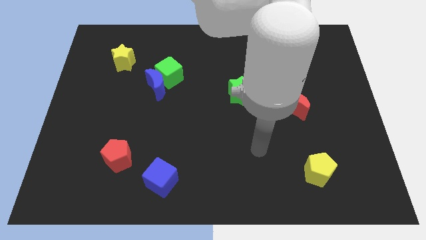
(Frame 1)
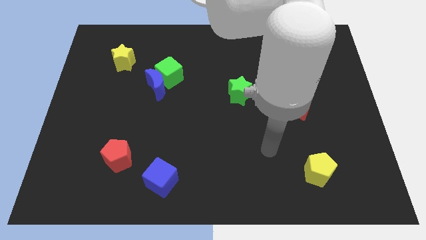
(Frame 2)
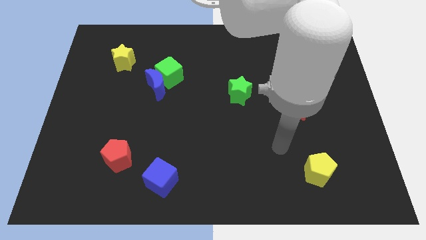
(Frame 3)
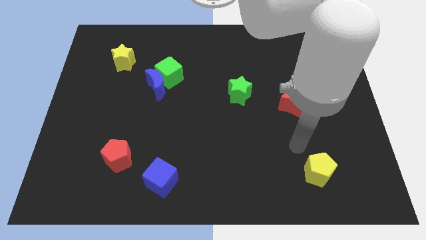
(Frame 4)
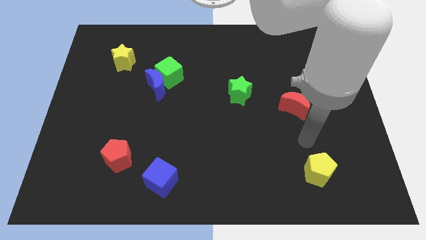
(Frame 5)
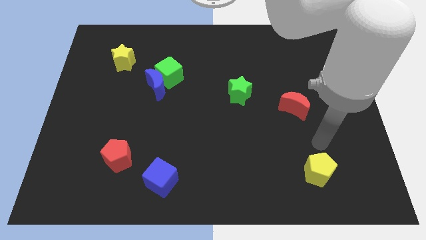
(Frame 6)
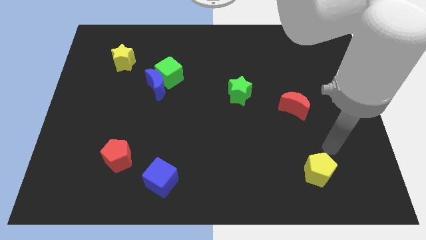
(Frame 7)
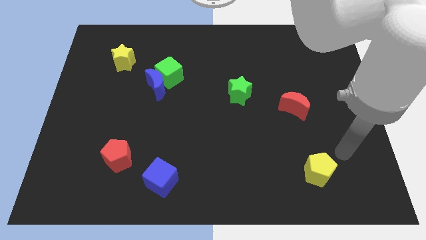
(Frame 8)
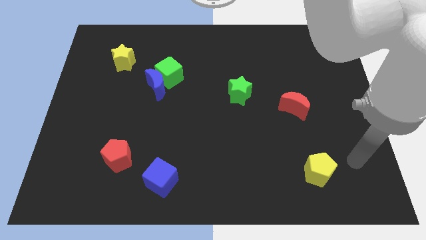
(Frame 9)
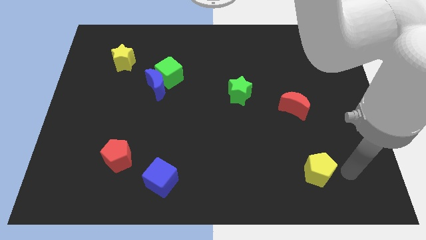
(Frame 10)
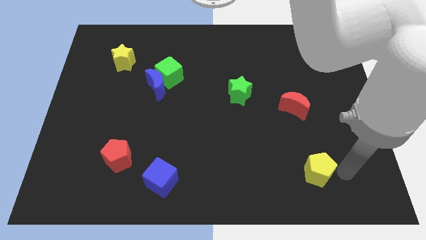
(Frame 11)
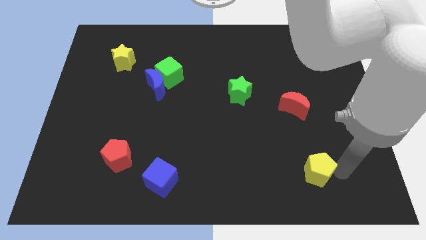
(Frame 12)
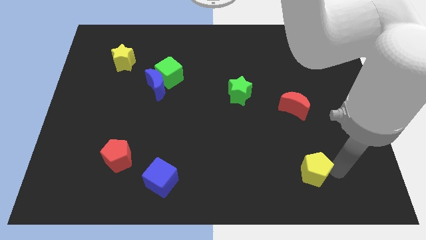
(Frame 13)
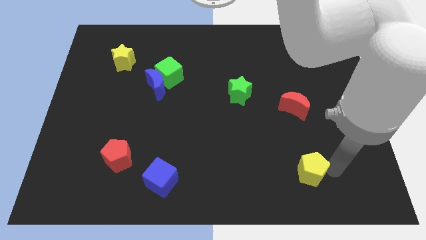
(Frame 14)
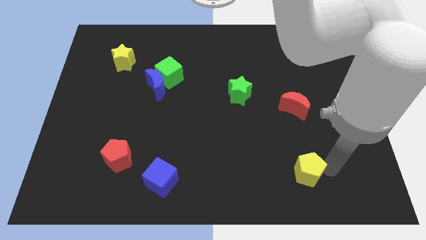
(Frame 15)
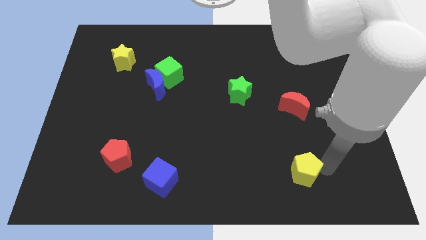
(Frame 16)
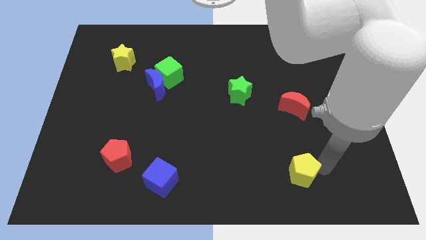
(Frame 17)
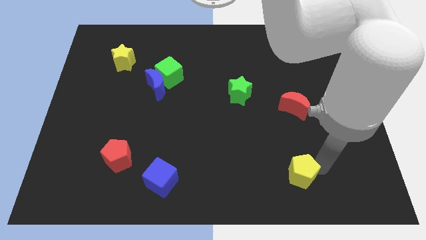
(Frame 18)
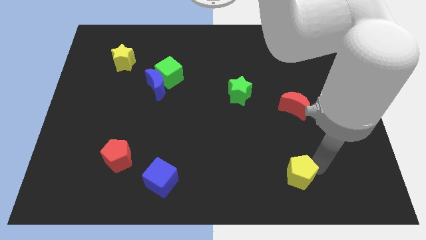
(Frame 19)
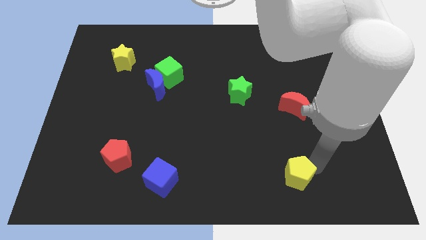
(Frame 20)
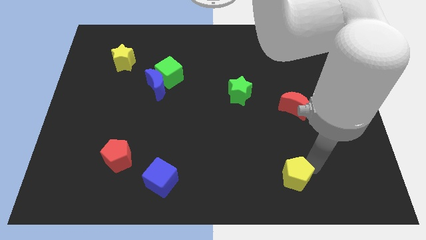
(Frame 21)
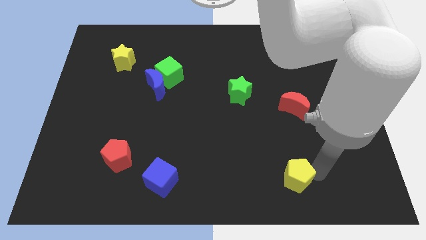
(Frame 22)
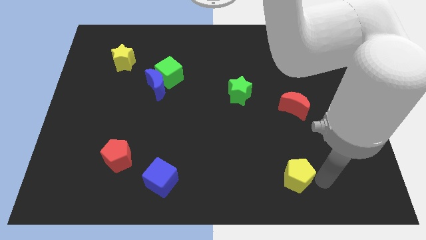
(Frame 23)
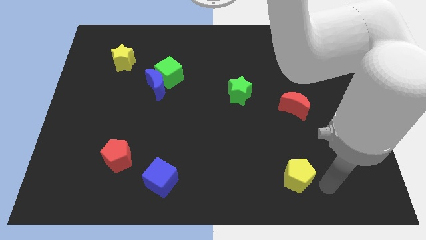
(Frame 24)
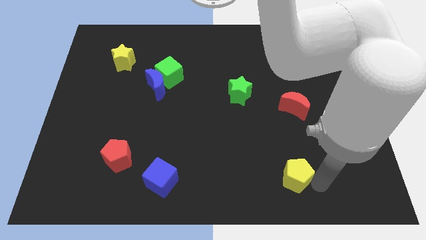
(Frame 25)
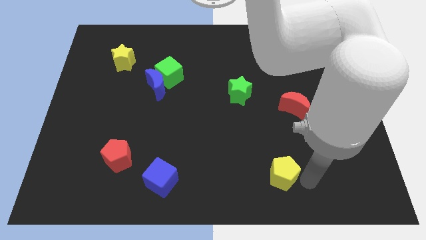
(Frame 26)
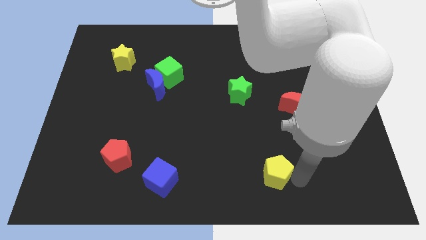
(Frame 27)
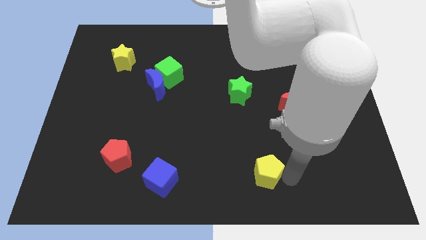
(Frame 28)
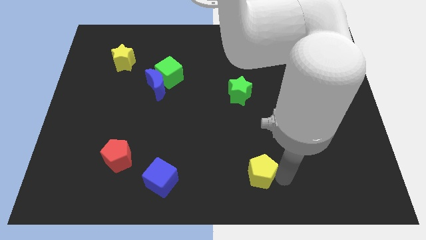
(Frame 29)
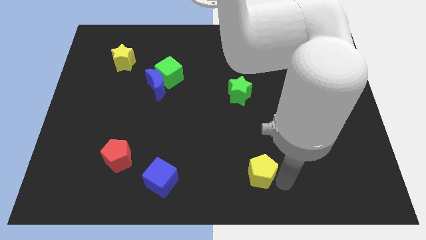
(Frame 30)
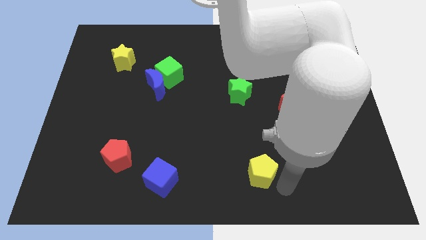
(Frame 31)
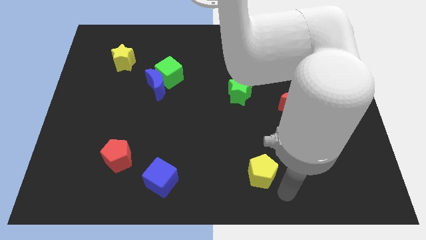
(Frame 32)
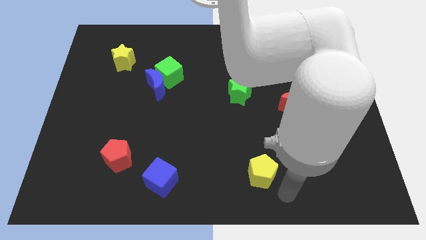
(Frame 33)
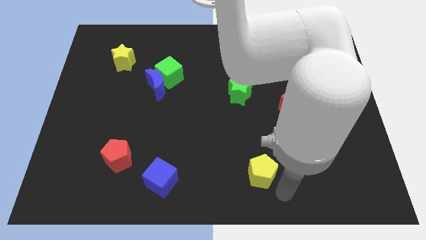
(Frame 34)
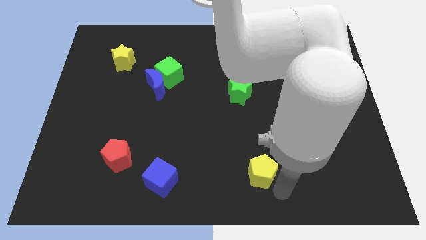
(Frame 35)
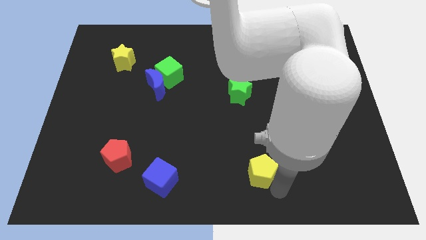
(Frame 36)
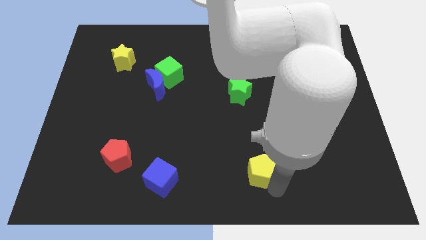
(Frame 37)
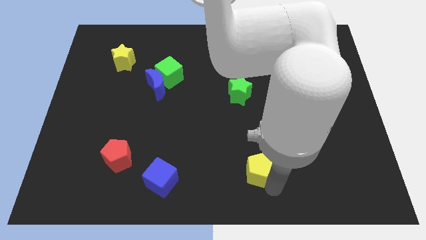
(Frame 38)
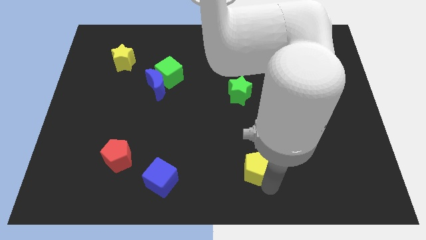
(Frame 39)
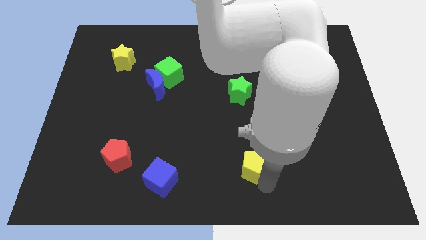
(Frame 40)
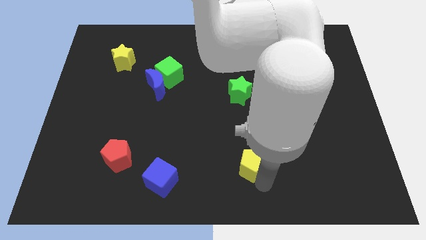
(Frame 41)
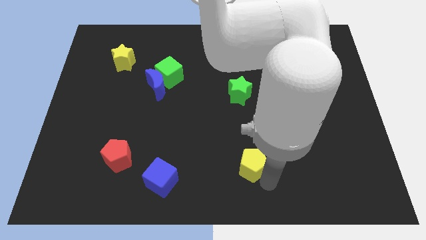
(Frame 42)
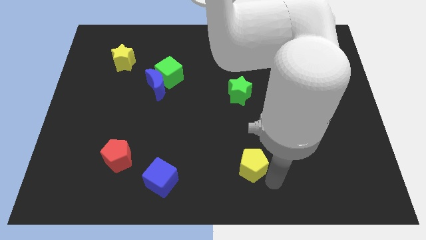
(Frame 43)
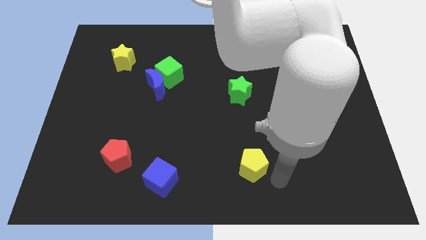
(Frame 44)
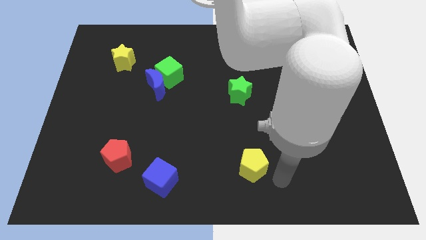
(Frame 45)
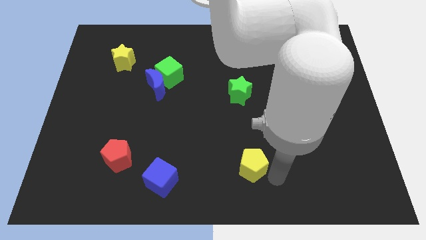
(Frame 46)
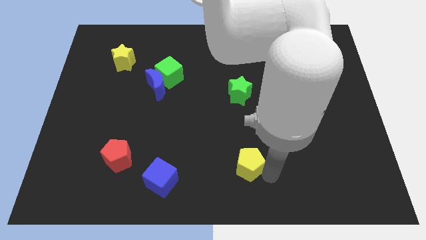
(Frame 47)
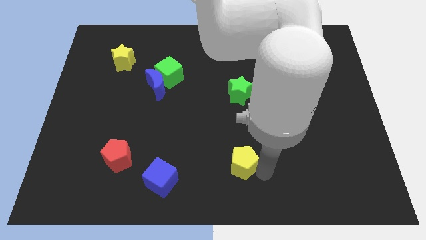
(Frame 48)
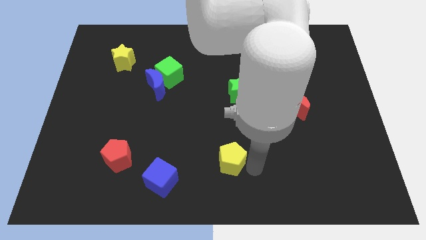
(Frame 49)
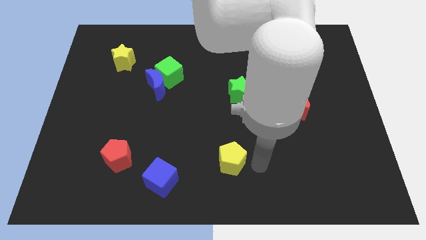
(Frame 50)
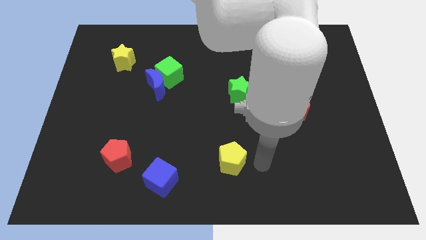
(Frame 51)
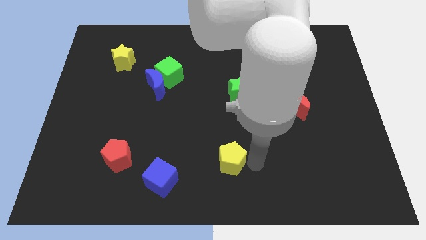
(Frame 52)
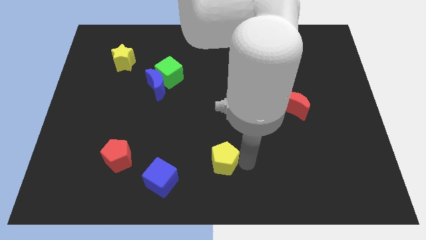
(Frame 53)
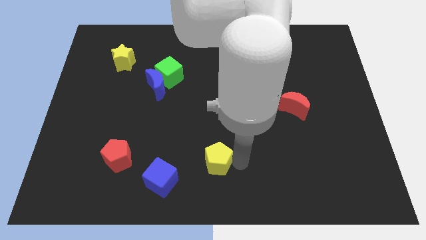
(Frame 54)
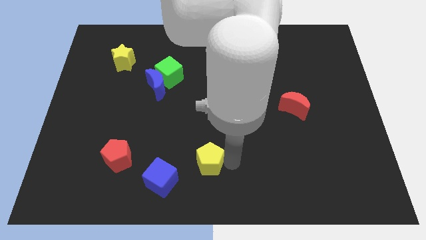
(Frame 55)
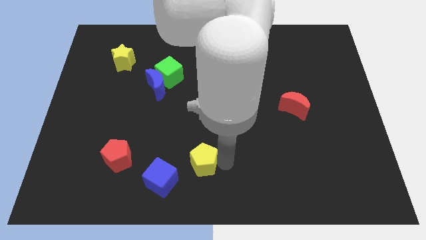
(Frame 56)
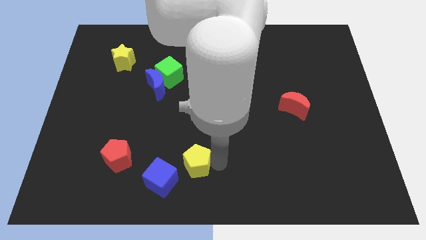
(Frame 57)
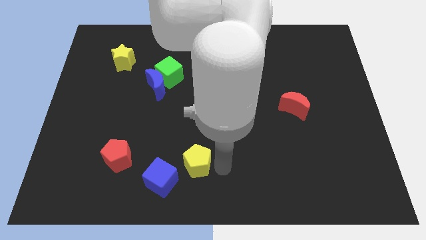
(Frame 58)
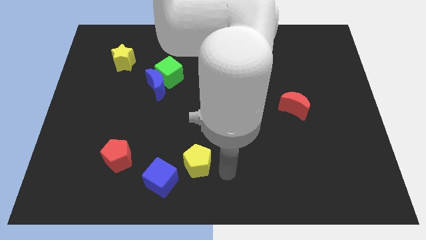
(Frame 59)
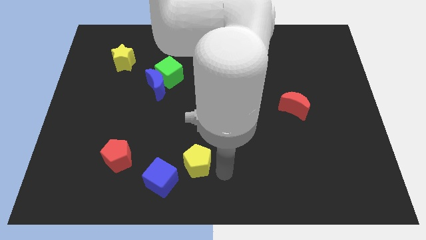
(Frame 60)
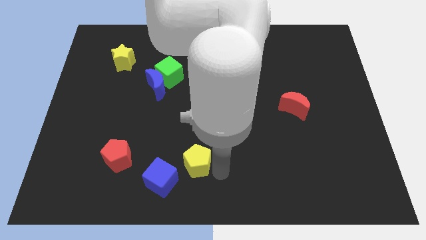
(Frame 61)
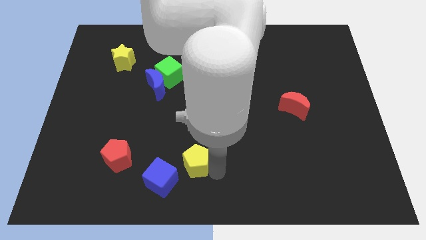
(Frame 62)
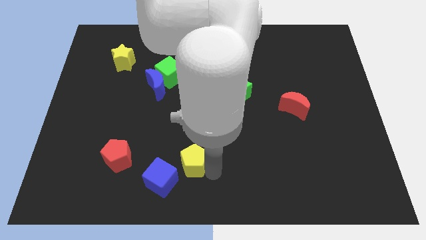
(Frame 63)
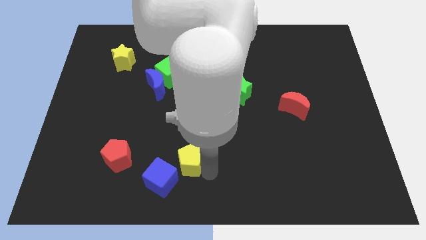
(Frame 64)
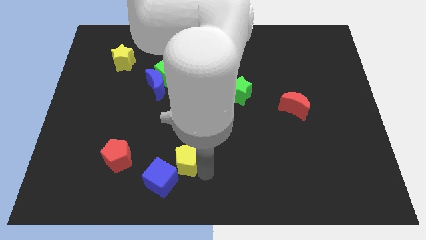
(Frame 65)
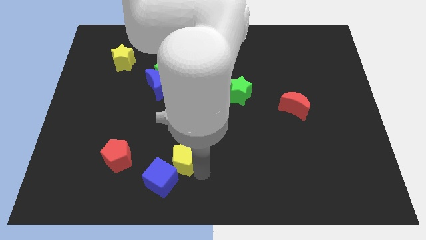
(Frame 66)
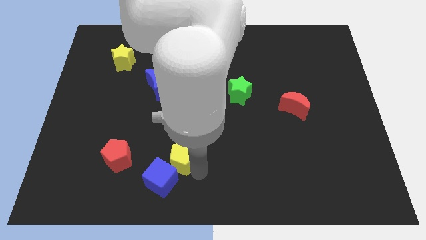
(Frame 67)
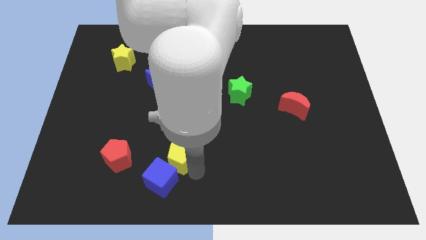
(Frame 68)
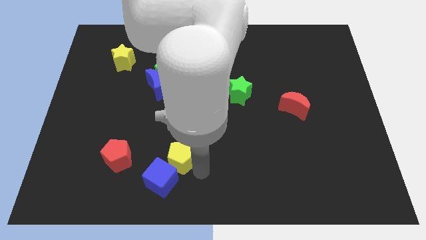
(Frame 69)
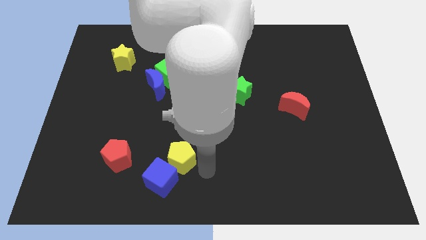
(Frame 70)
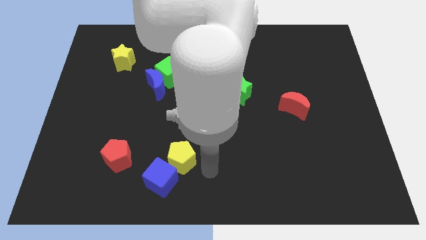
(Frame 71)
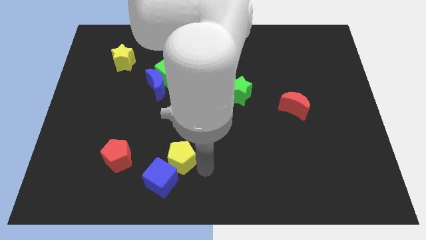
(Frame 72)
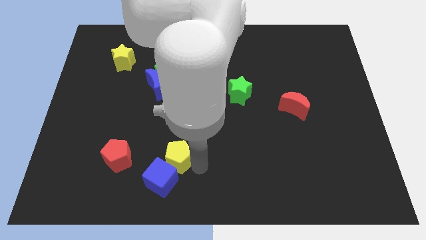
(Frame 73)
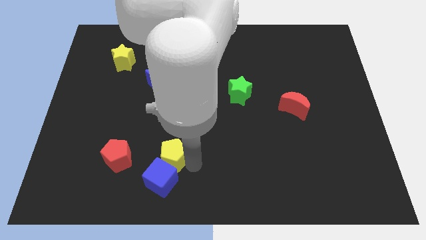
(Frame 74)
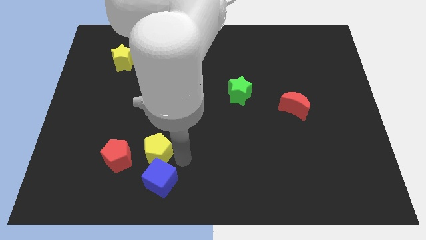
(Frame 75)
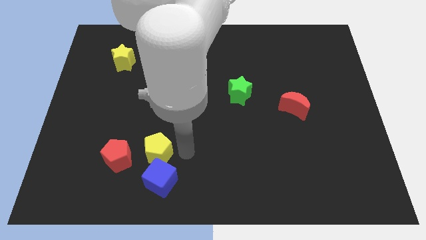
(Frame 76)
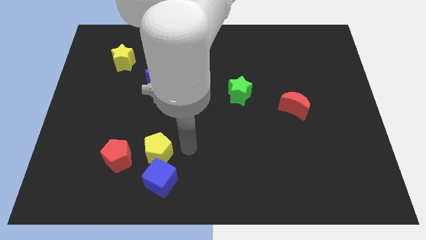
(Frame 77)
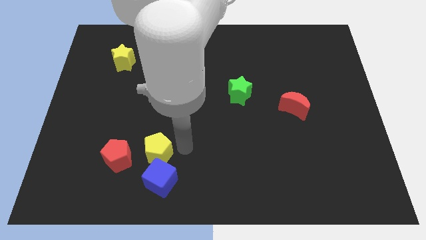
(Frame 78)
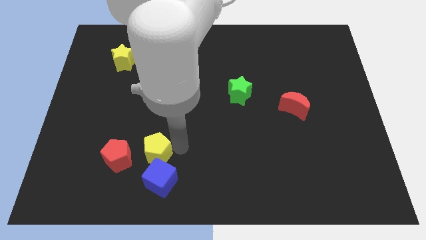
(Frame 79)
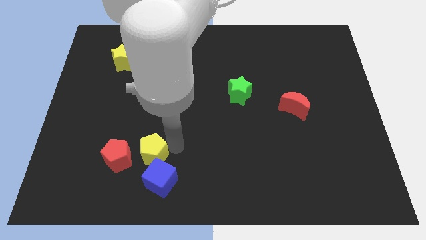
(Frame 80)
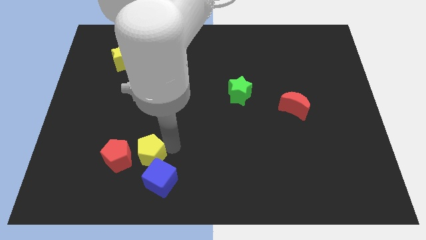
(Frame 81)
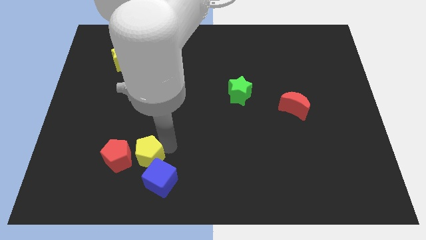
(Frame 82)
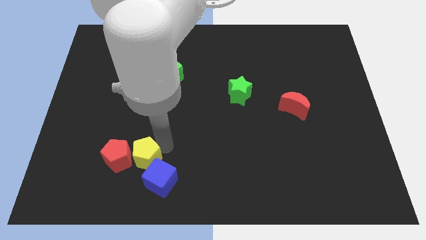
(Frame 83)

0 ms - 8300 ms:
push the yellow pentagon to the red pentagon
